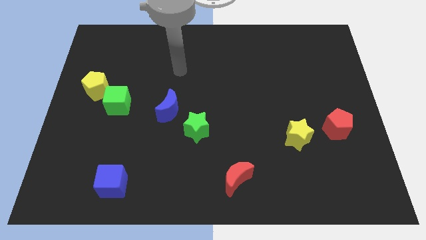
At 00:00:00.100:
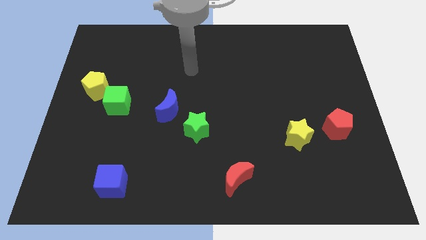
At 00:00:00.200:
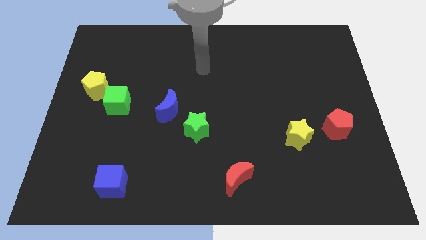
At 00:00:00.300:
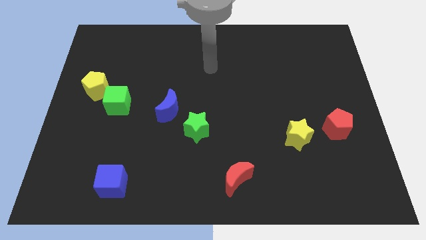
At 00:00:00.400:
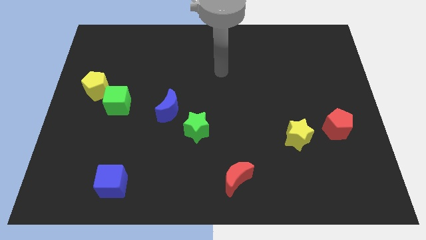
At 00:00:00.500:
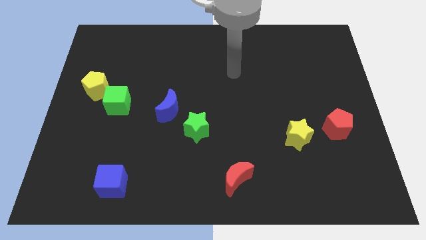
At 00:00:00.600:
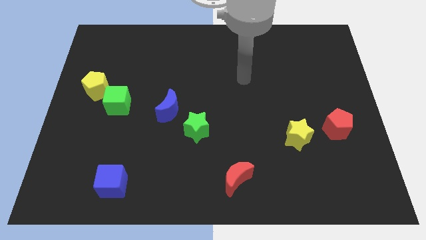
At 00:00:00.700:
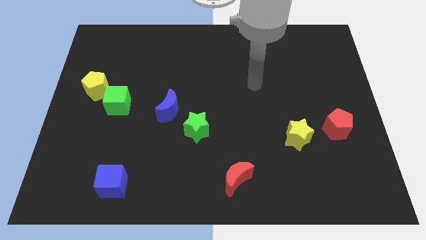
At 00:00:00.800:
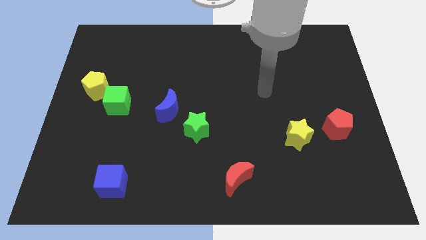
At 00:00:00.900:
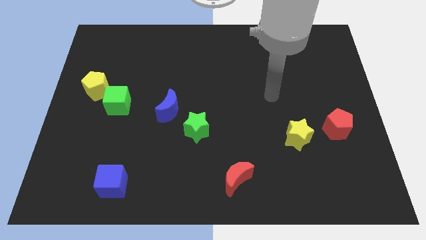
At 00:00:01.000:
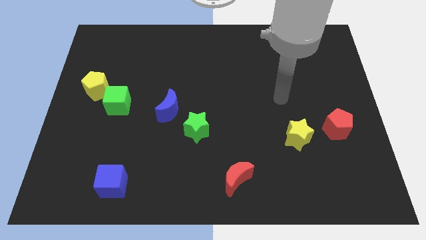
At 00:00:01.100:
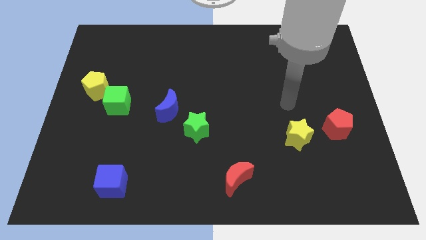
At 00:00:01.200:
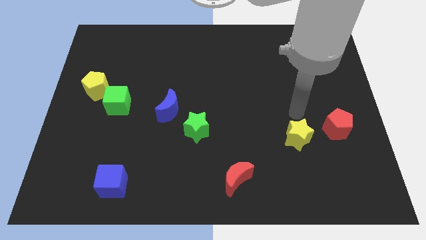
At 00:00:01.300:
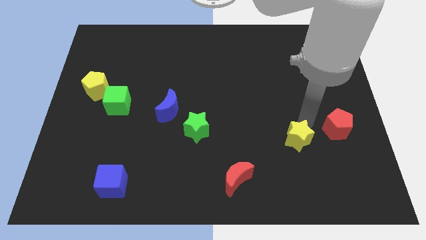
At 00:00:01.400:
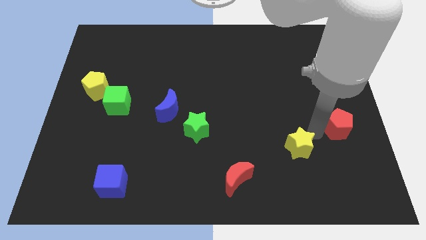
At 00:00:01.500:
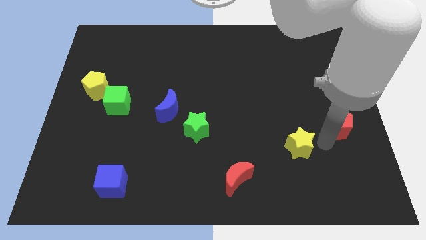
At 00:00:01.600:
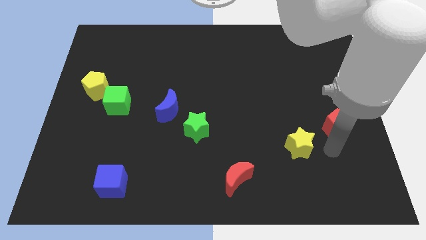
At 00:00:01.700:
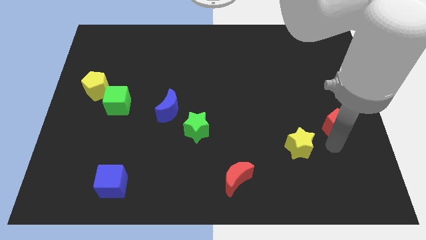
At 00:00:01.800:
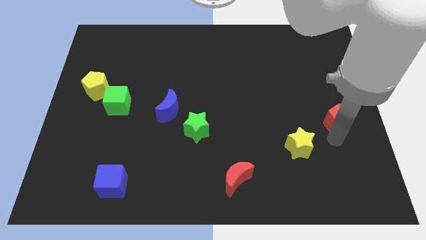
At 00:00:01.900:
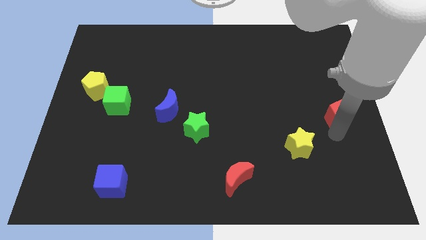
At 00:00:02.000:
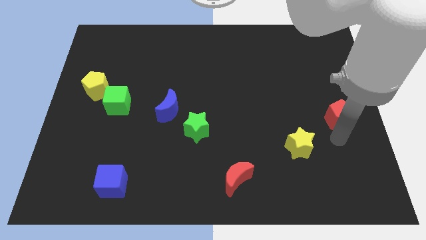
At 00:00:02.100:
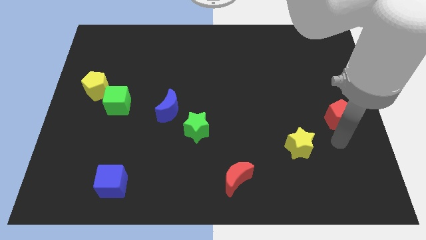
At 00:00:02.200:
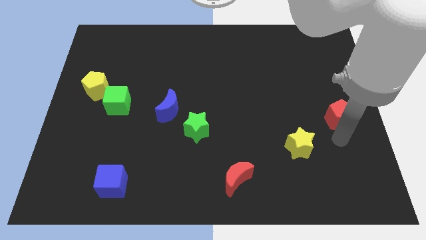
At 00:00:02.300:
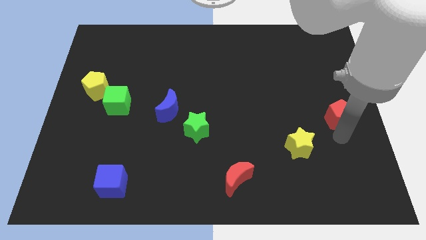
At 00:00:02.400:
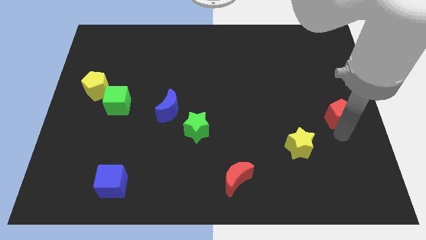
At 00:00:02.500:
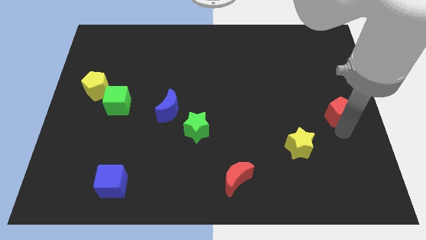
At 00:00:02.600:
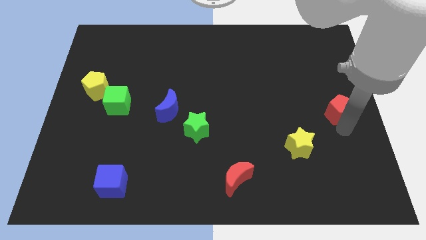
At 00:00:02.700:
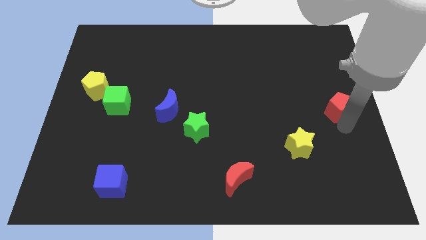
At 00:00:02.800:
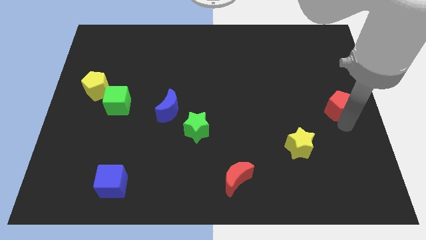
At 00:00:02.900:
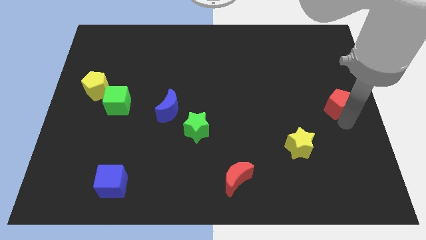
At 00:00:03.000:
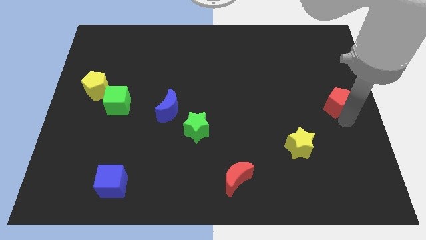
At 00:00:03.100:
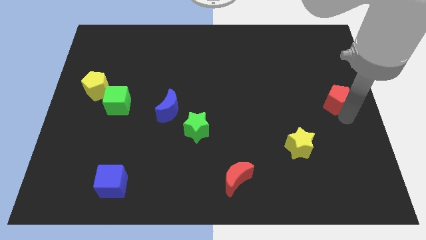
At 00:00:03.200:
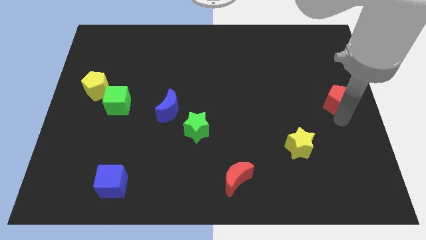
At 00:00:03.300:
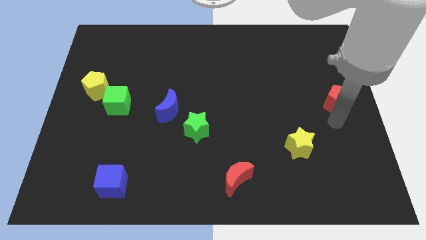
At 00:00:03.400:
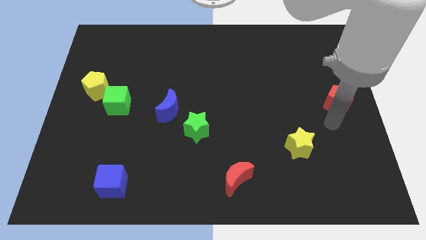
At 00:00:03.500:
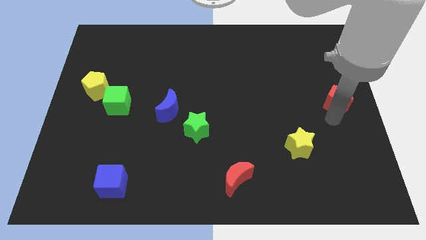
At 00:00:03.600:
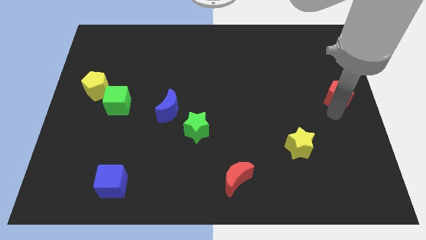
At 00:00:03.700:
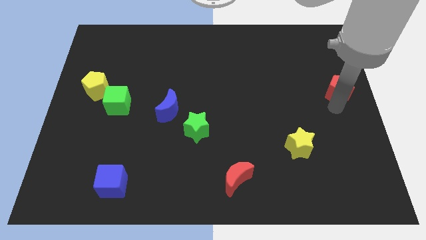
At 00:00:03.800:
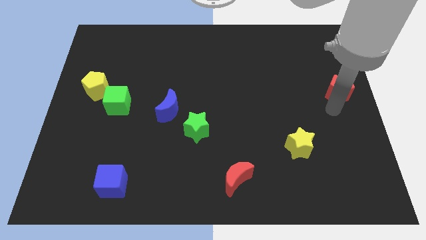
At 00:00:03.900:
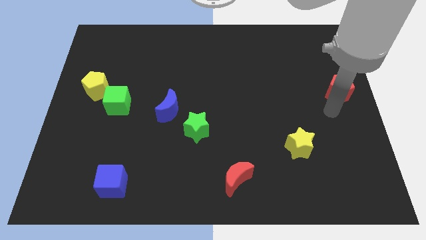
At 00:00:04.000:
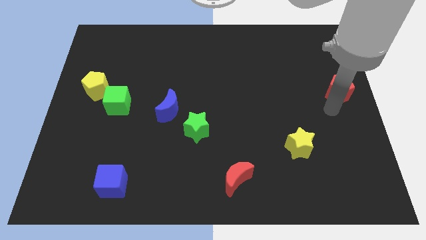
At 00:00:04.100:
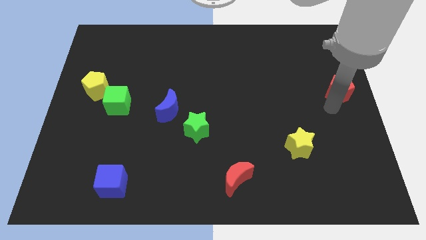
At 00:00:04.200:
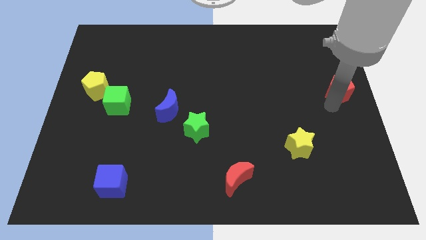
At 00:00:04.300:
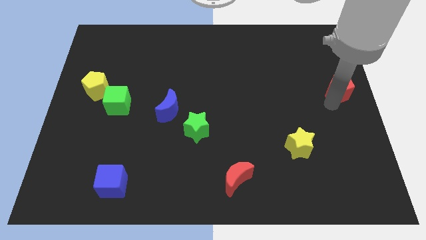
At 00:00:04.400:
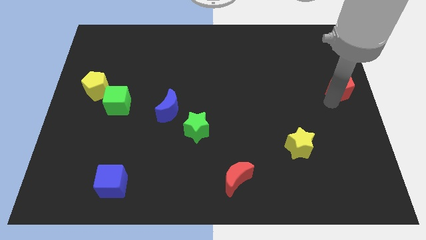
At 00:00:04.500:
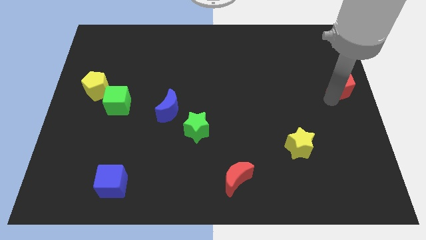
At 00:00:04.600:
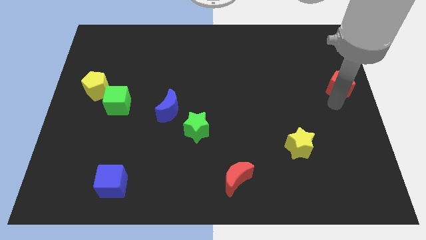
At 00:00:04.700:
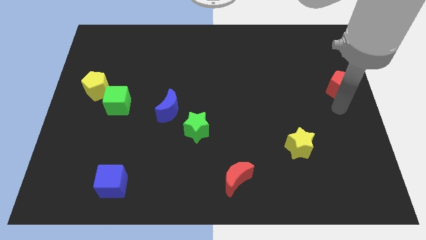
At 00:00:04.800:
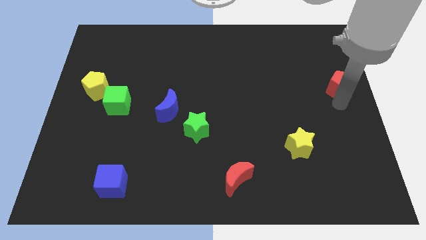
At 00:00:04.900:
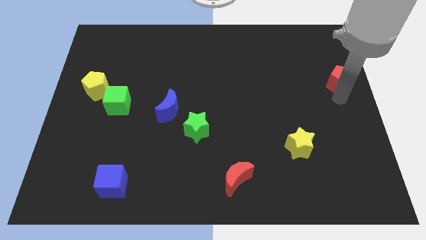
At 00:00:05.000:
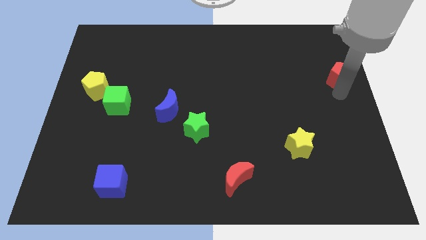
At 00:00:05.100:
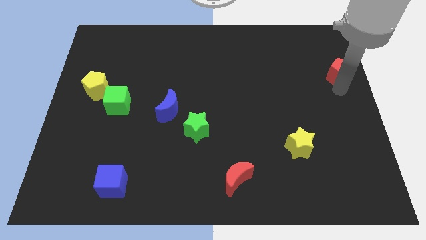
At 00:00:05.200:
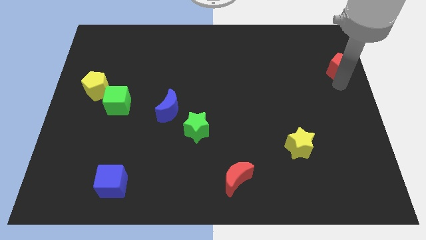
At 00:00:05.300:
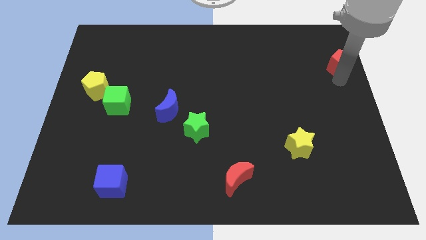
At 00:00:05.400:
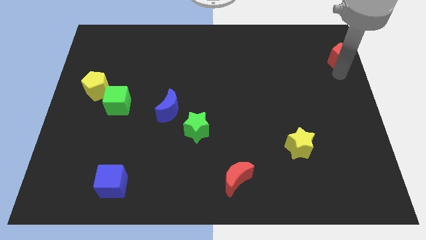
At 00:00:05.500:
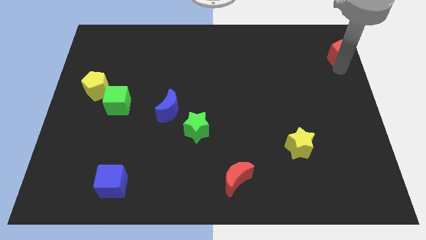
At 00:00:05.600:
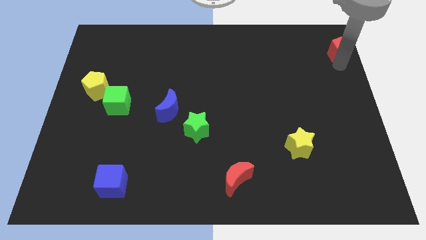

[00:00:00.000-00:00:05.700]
move the red pentagon to the top right of the board
